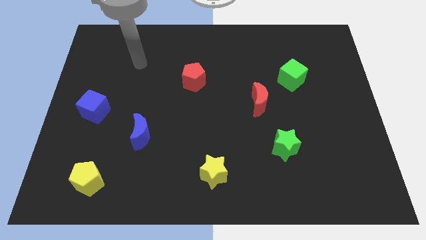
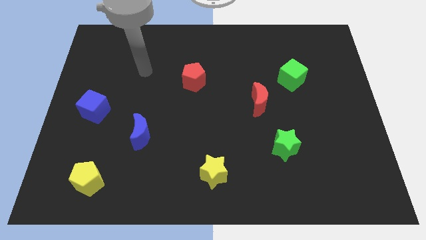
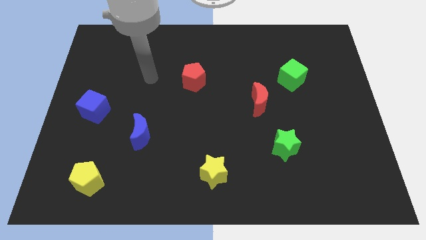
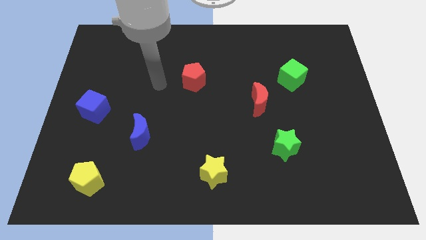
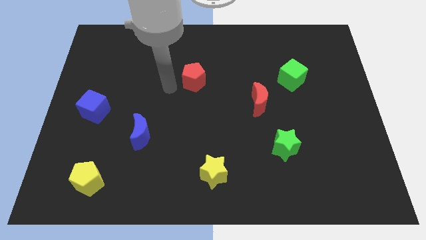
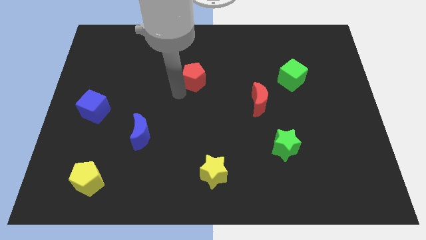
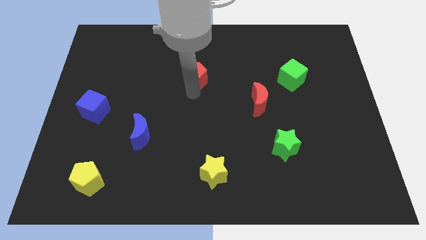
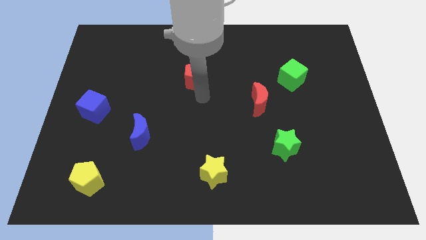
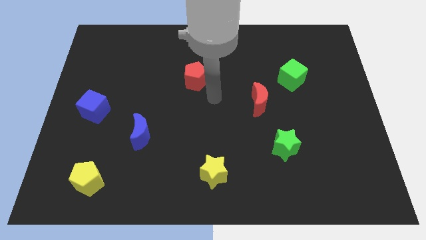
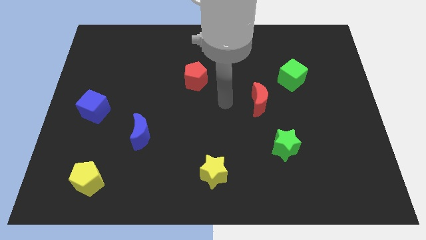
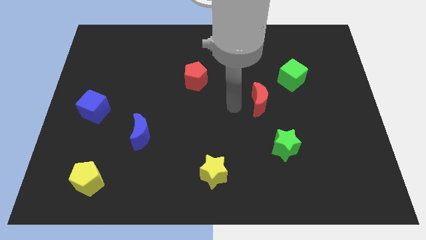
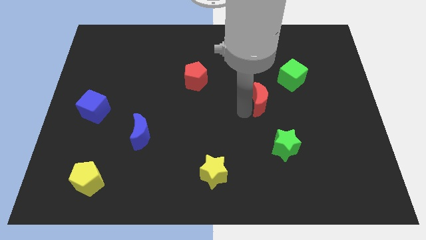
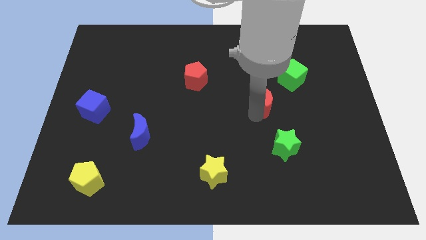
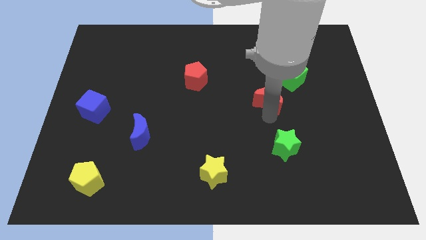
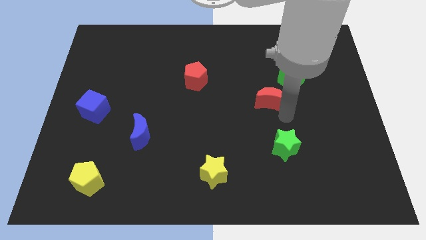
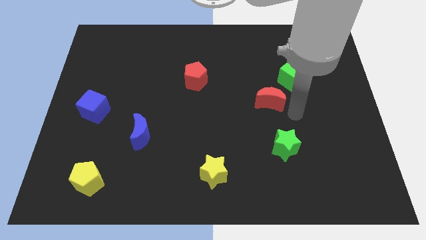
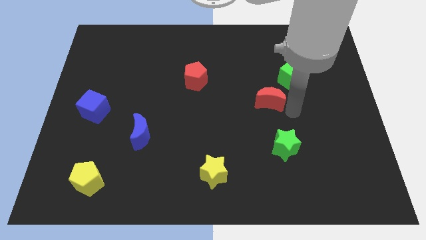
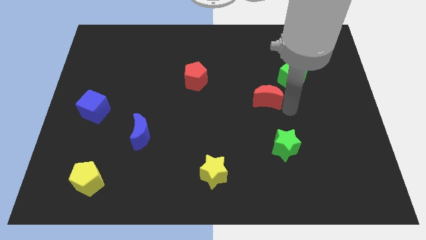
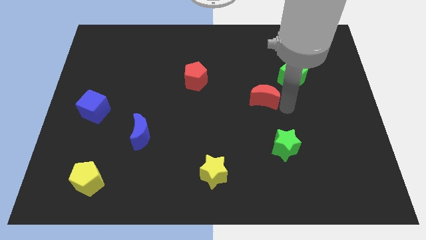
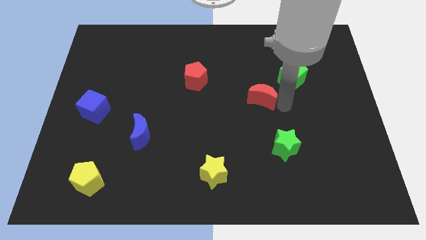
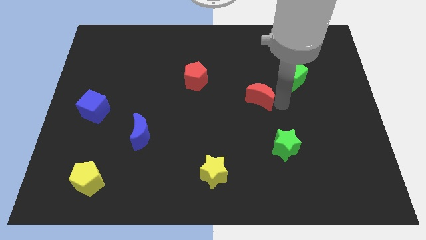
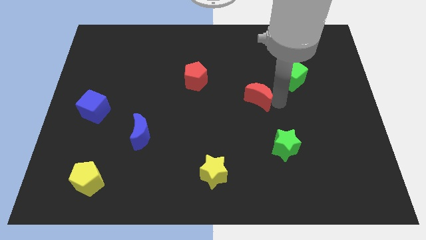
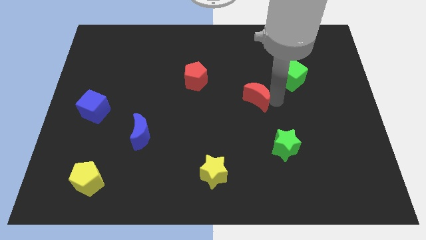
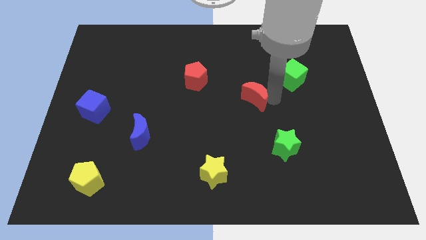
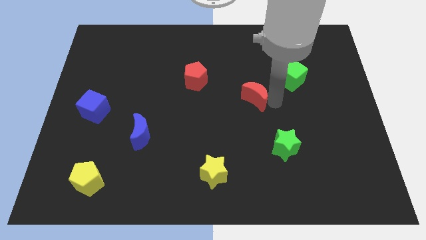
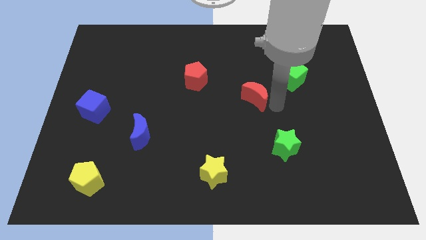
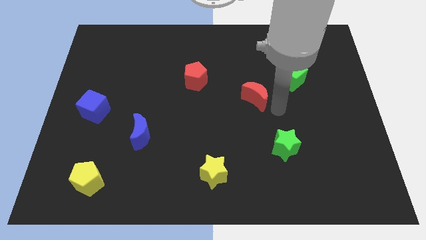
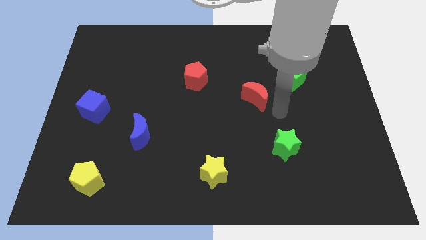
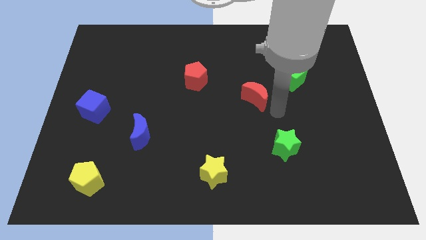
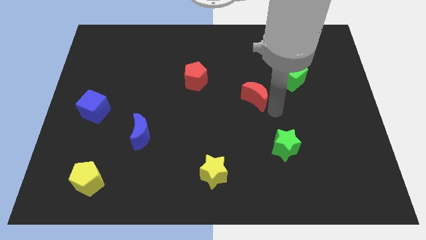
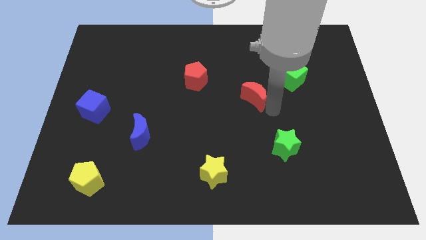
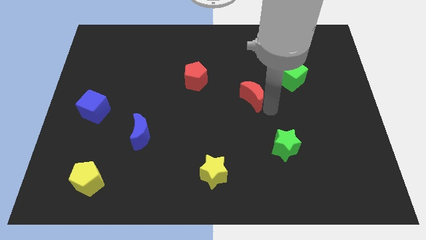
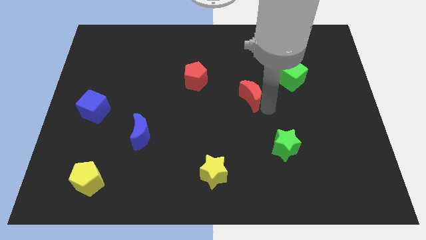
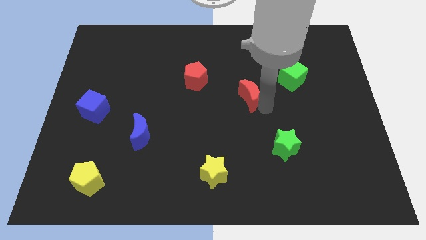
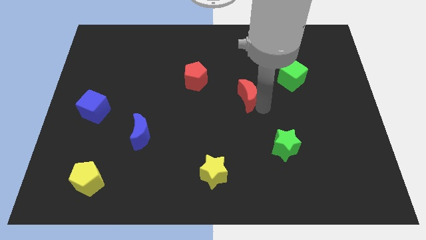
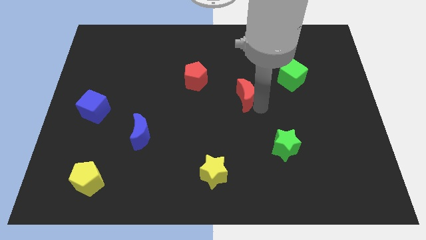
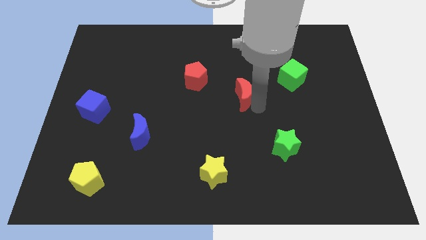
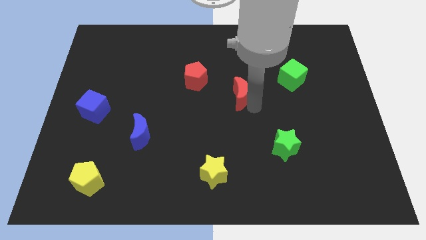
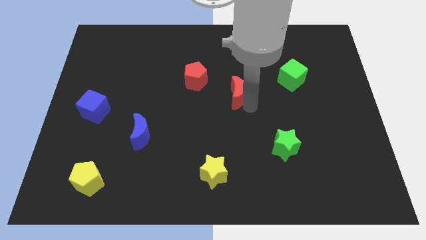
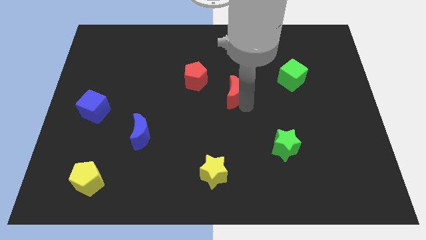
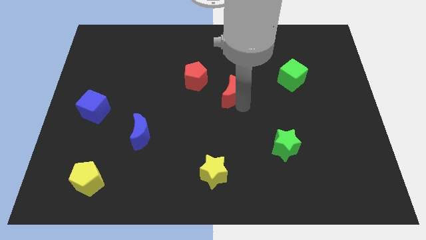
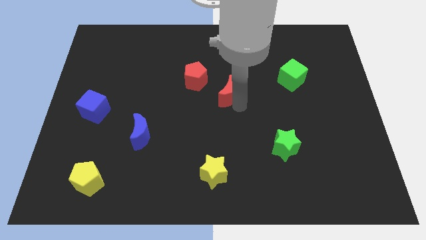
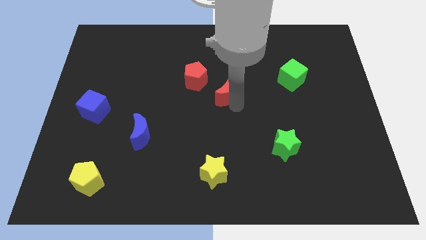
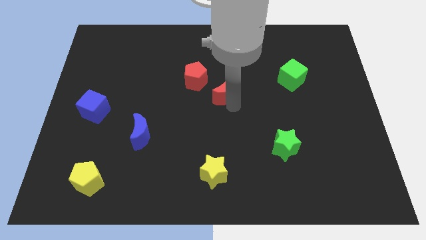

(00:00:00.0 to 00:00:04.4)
slide the red moon upwards and then left somewhat

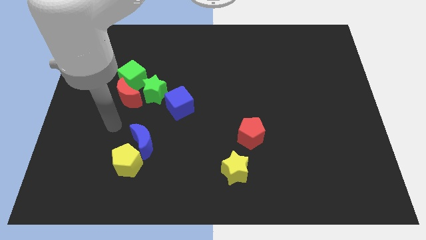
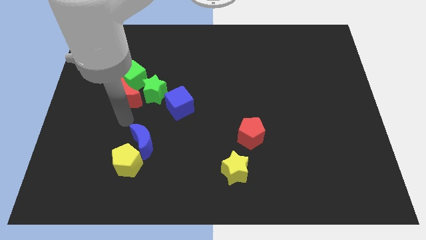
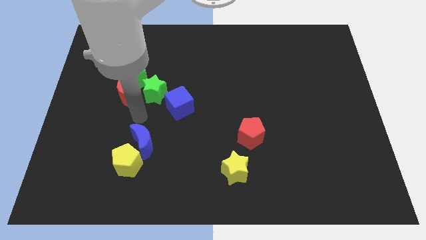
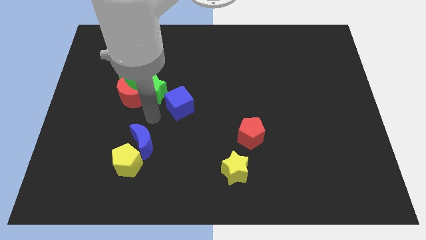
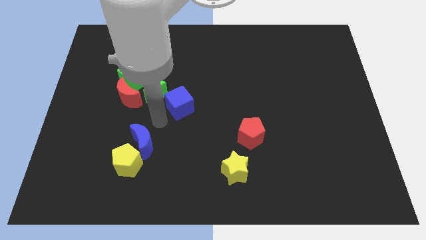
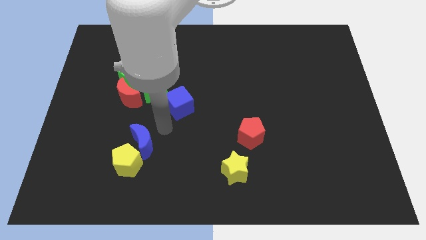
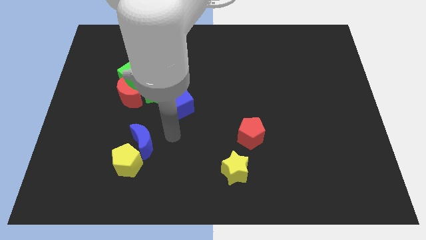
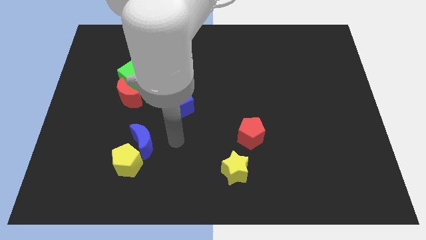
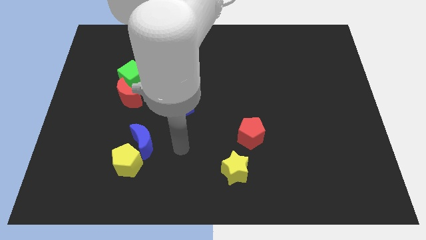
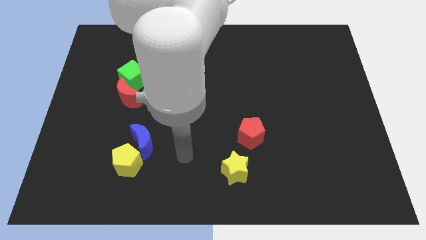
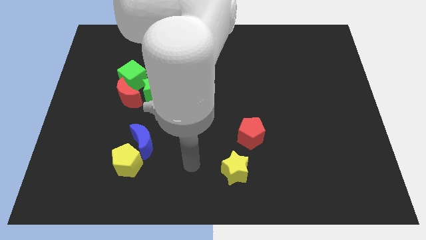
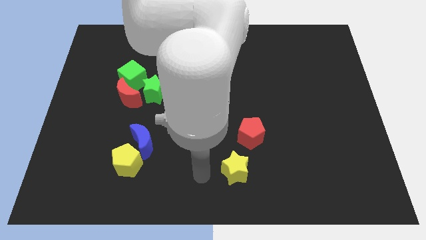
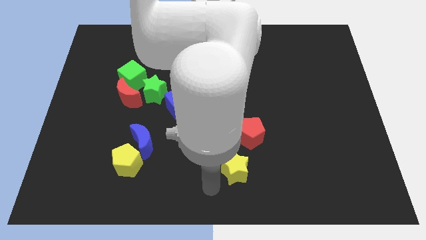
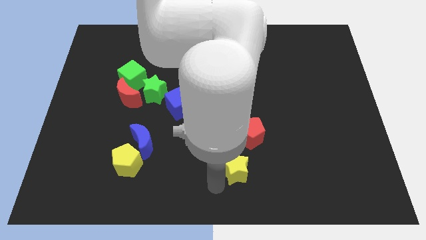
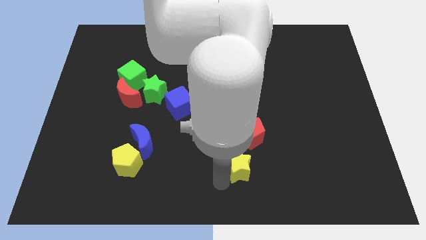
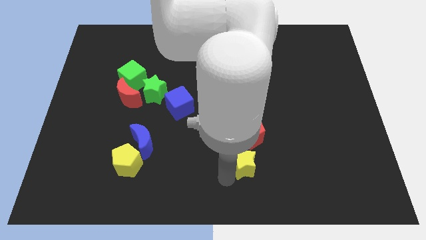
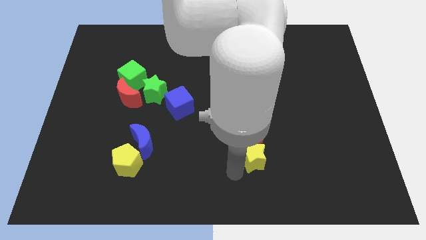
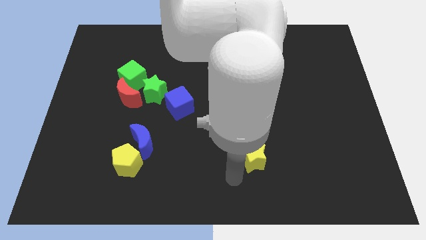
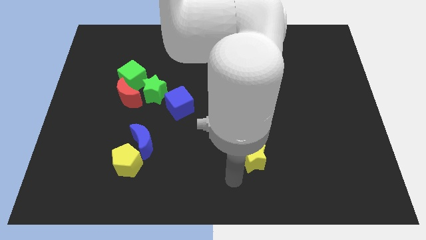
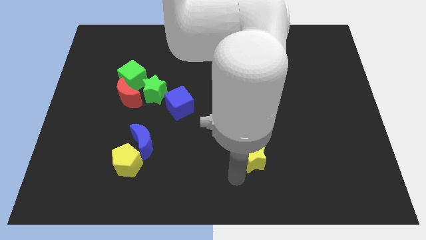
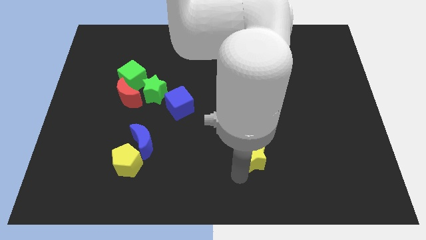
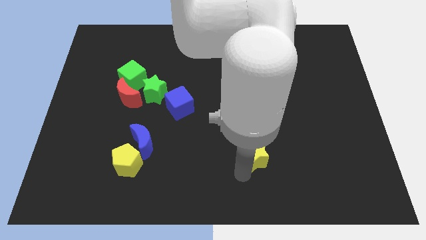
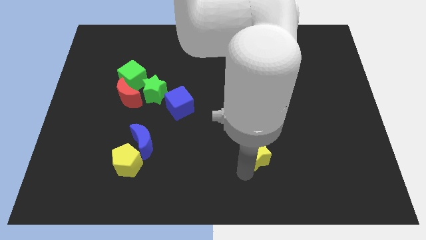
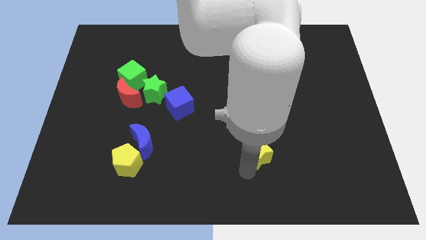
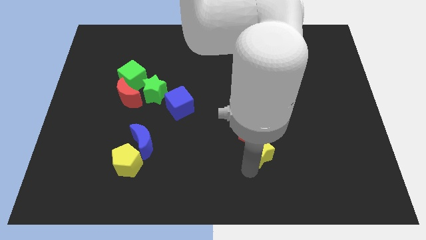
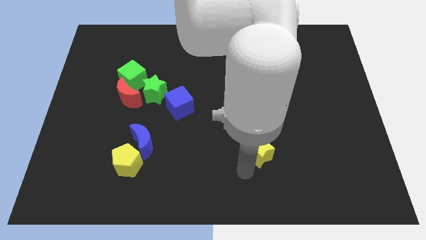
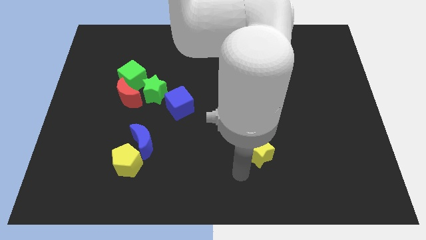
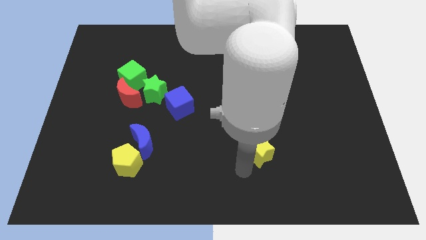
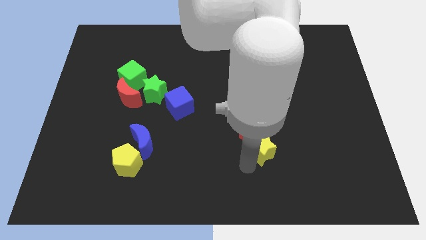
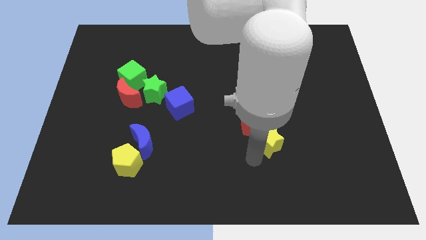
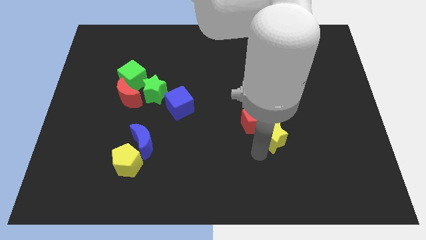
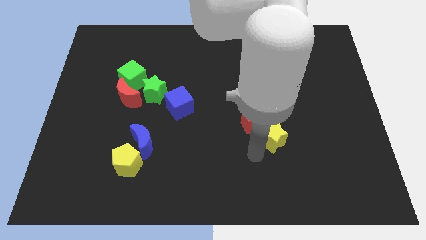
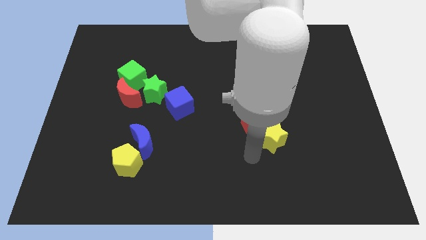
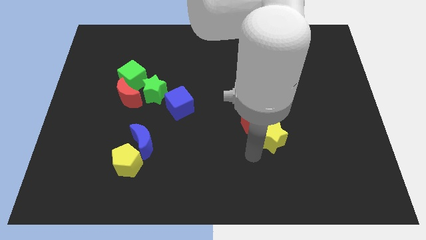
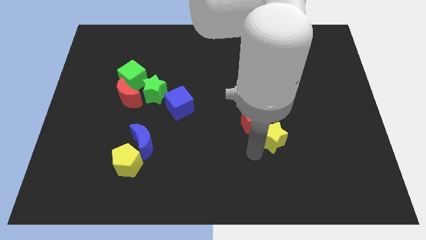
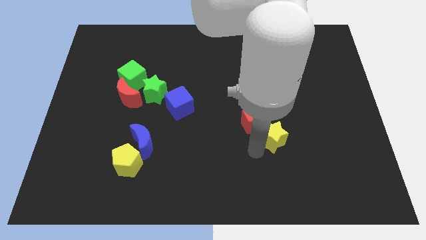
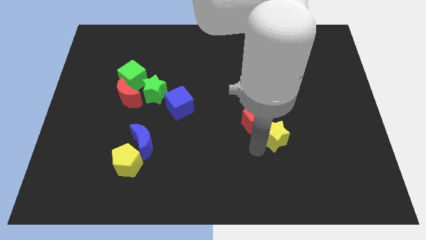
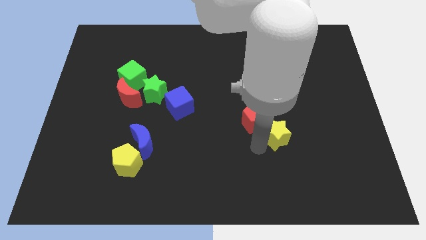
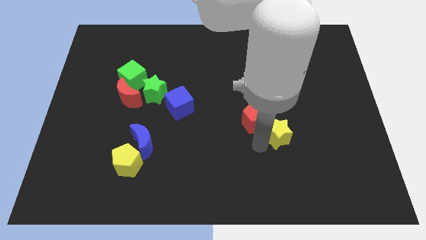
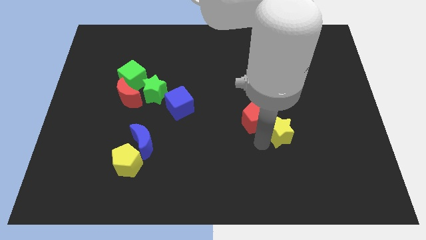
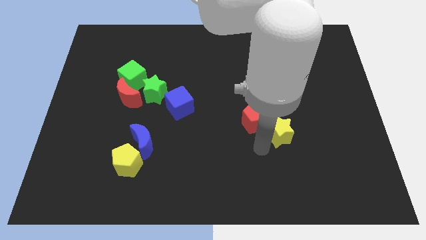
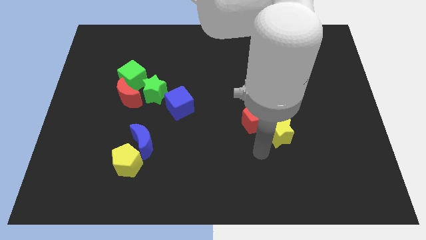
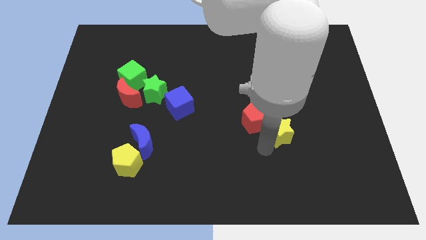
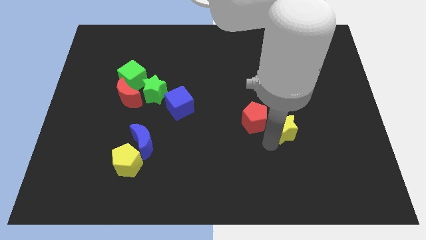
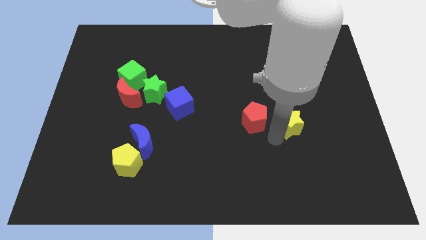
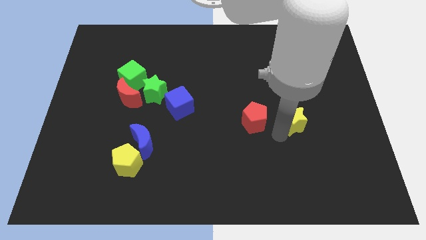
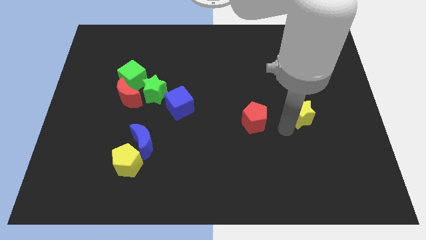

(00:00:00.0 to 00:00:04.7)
slide the yellow star diagonally up and to the right
